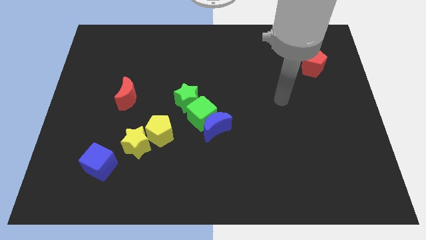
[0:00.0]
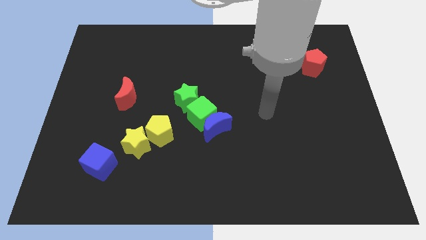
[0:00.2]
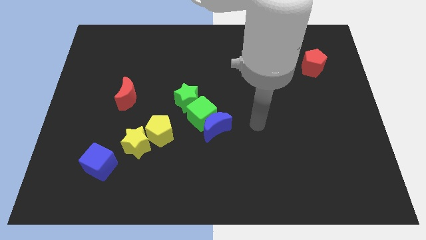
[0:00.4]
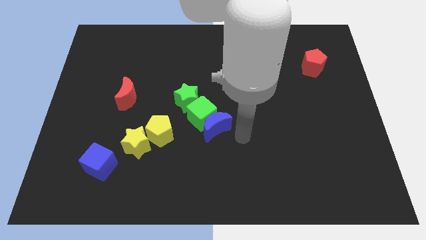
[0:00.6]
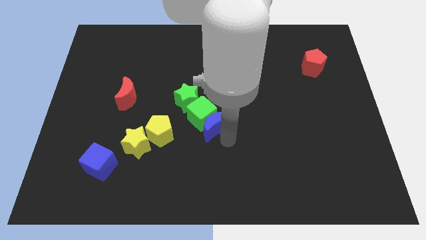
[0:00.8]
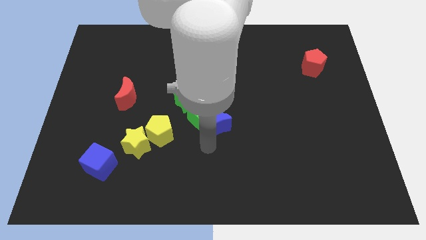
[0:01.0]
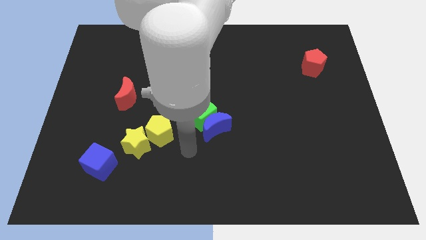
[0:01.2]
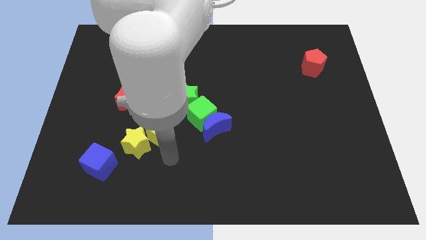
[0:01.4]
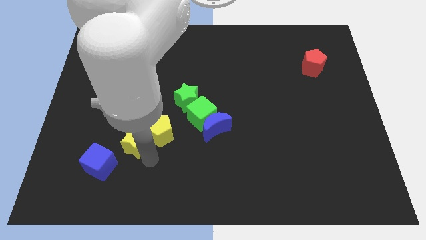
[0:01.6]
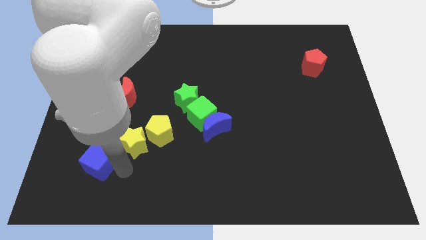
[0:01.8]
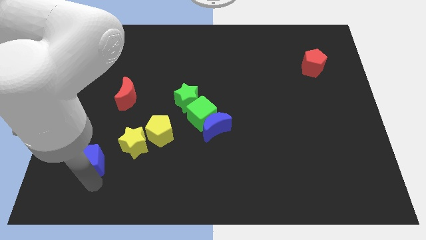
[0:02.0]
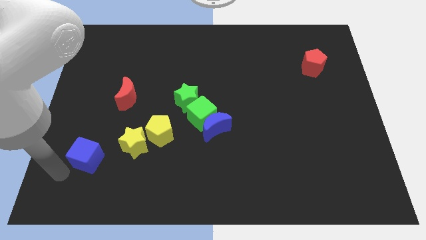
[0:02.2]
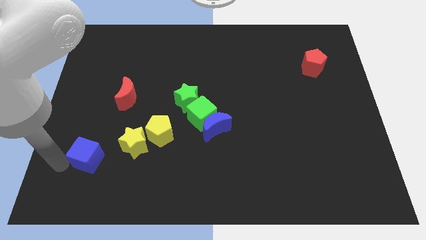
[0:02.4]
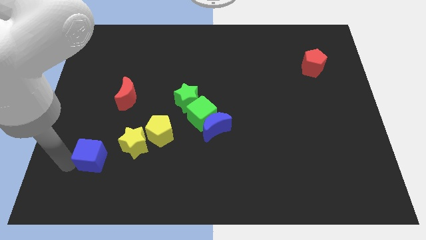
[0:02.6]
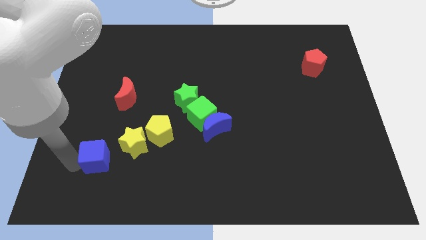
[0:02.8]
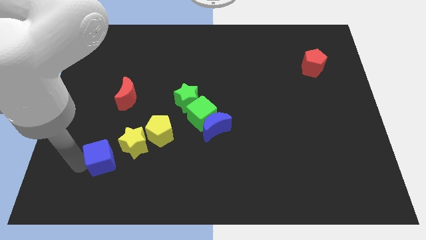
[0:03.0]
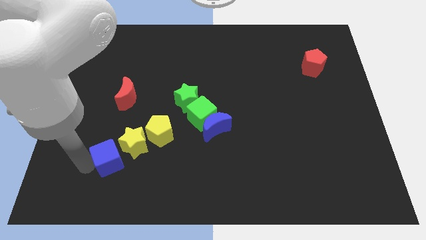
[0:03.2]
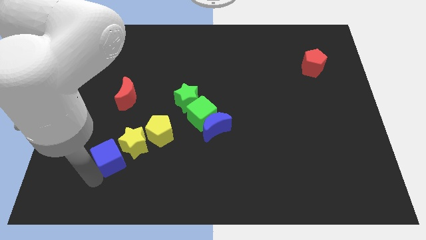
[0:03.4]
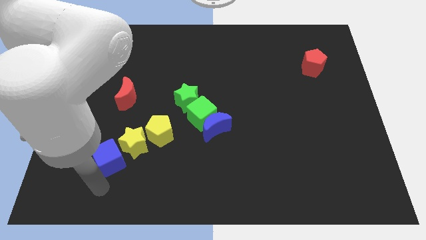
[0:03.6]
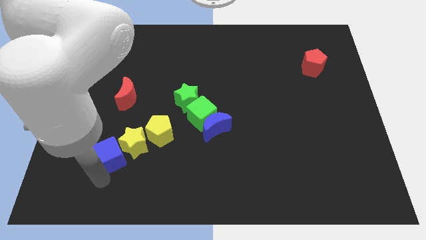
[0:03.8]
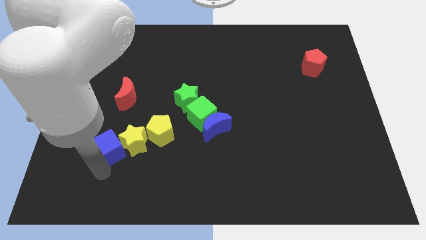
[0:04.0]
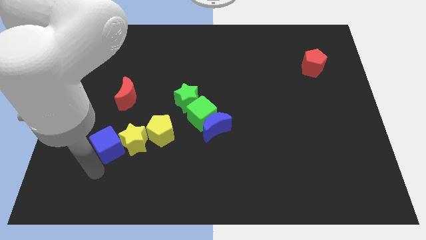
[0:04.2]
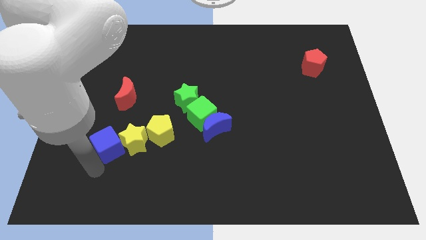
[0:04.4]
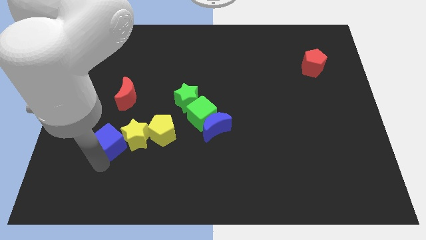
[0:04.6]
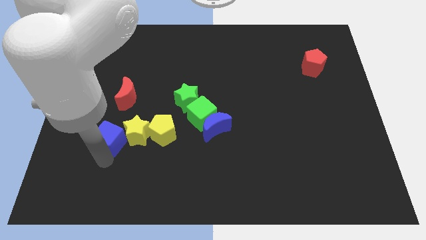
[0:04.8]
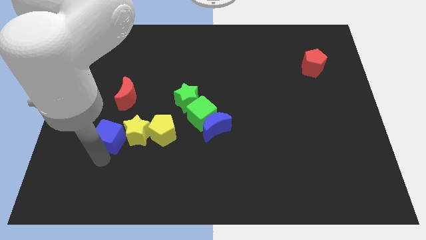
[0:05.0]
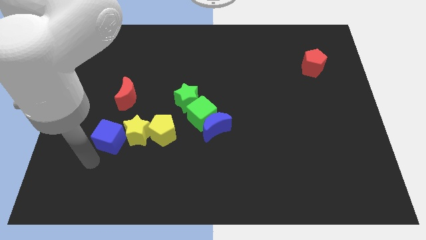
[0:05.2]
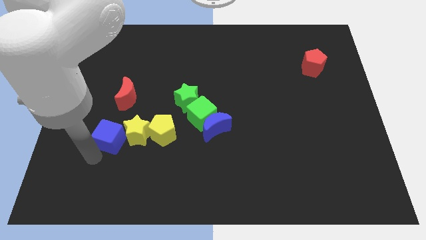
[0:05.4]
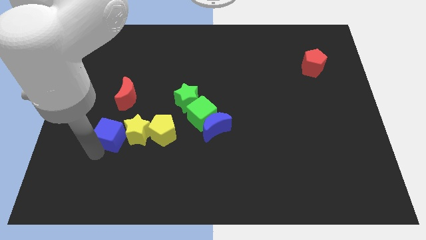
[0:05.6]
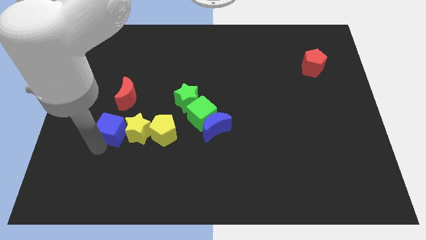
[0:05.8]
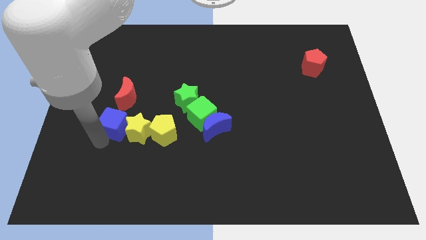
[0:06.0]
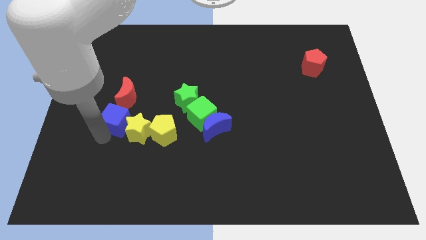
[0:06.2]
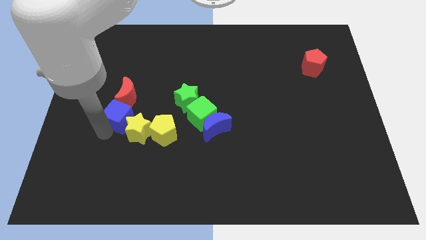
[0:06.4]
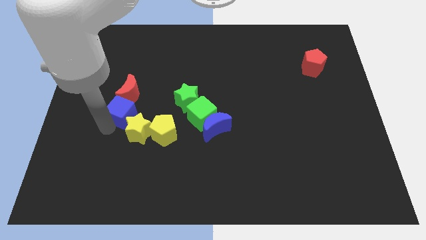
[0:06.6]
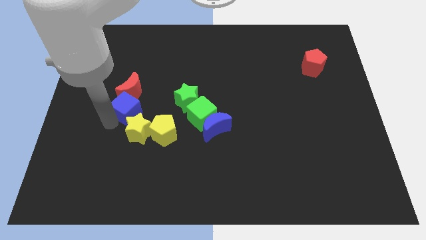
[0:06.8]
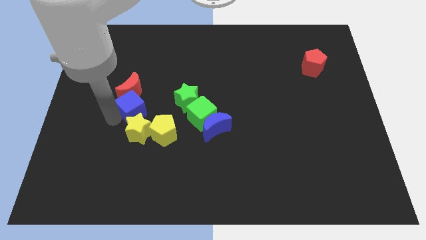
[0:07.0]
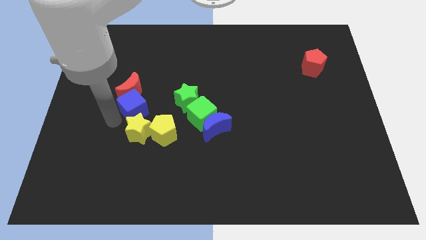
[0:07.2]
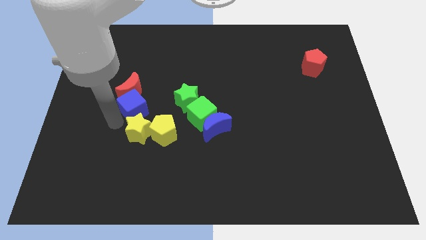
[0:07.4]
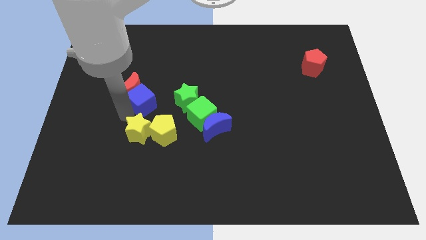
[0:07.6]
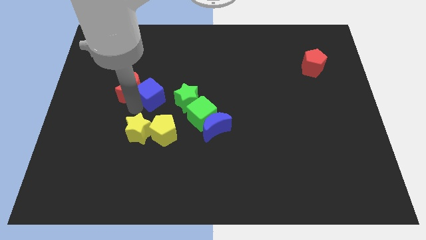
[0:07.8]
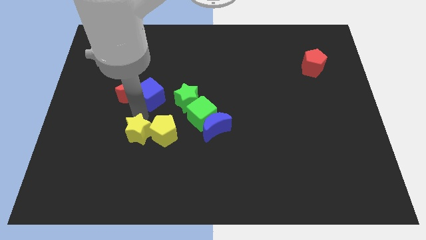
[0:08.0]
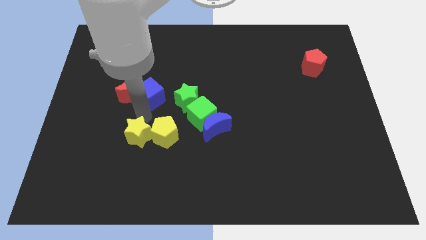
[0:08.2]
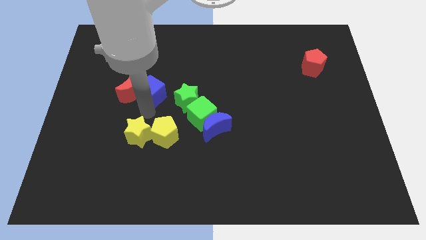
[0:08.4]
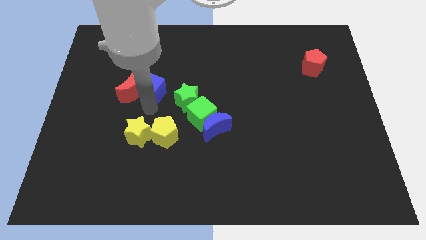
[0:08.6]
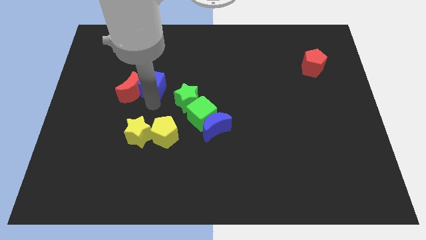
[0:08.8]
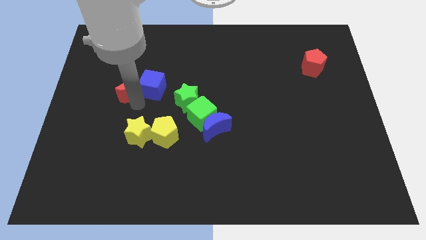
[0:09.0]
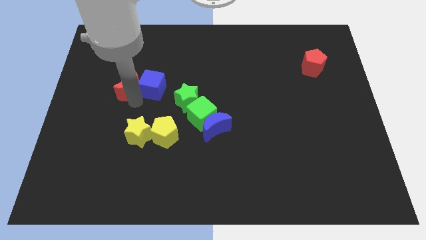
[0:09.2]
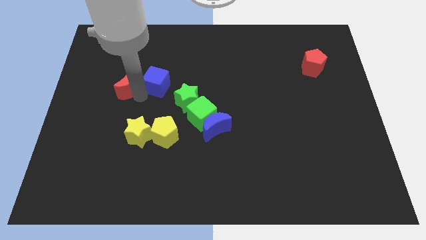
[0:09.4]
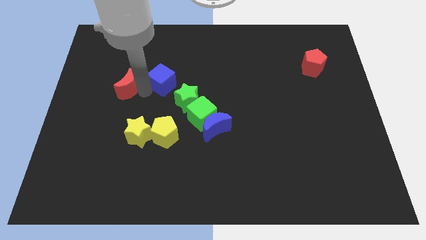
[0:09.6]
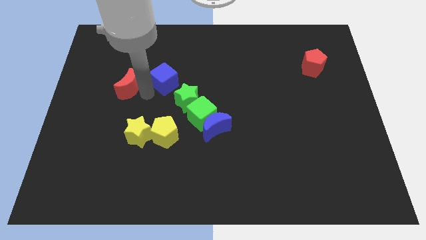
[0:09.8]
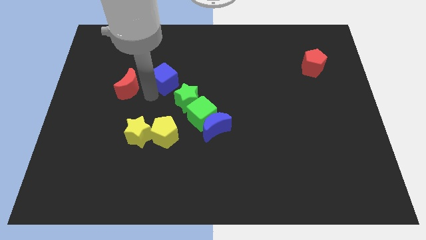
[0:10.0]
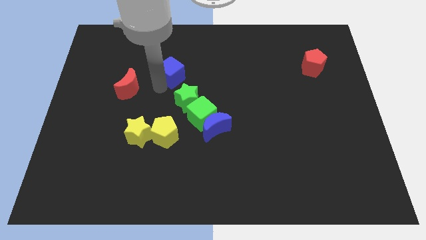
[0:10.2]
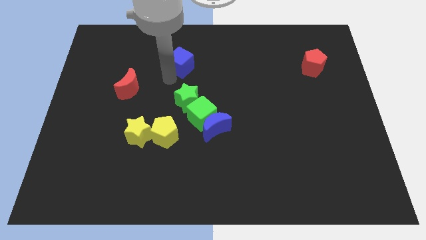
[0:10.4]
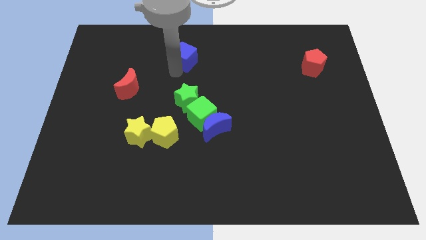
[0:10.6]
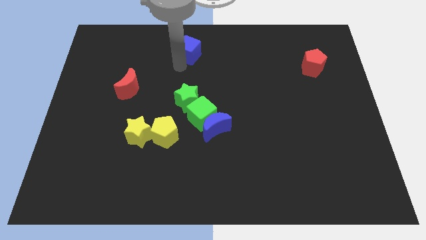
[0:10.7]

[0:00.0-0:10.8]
push the blue cube to the towards your base

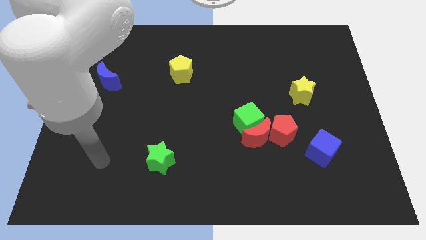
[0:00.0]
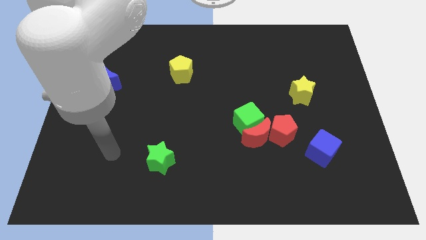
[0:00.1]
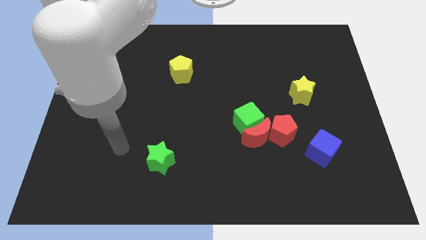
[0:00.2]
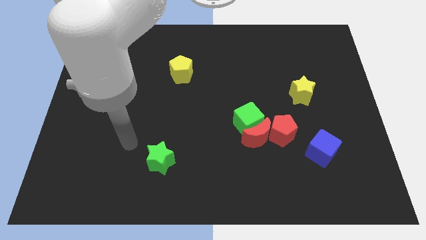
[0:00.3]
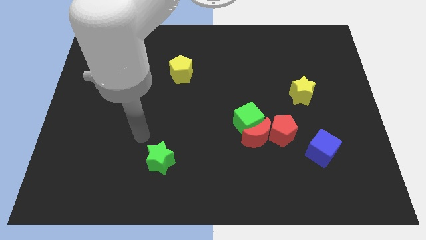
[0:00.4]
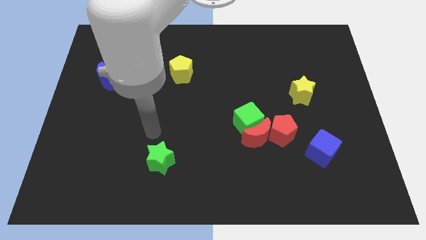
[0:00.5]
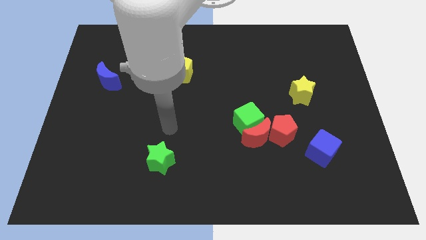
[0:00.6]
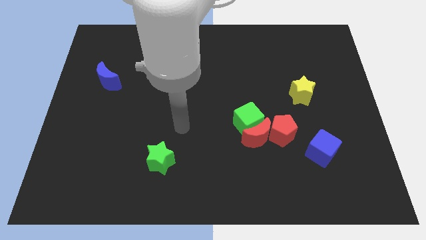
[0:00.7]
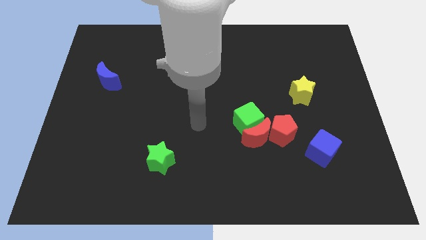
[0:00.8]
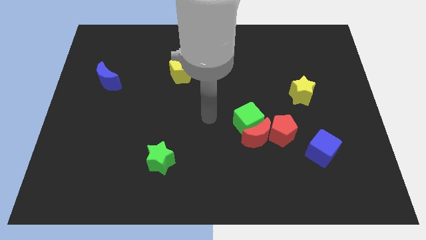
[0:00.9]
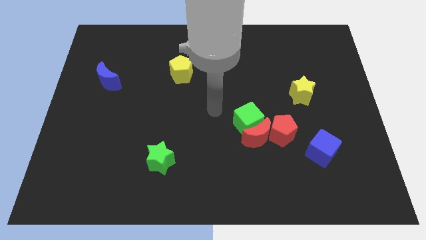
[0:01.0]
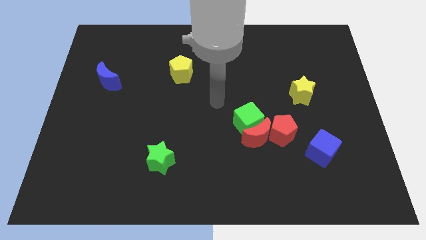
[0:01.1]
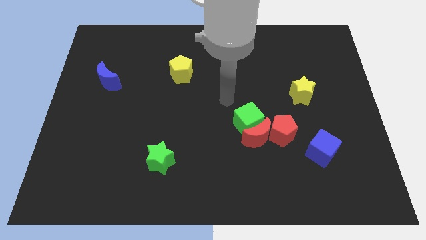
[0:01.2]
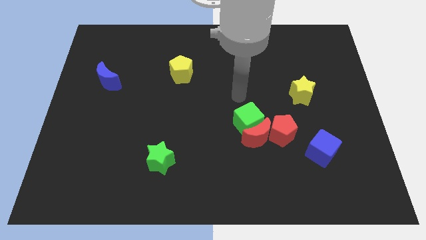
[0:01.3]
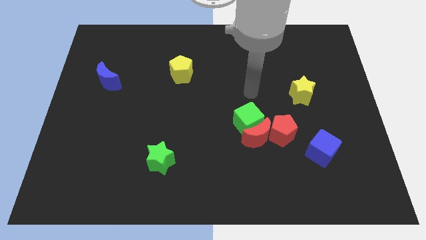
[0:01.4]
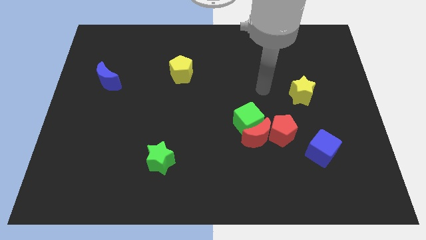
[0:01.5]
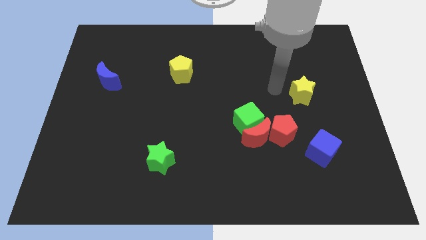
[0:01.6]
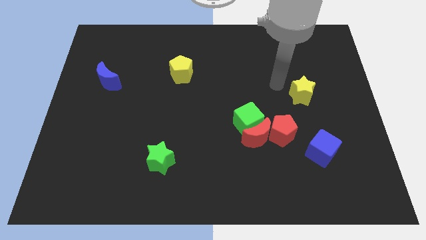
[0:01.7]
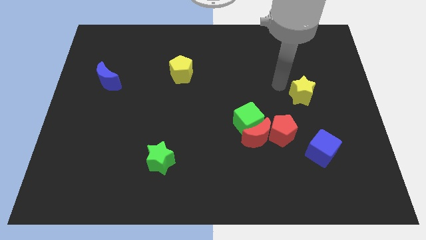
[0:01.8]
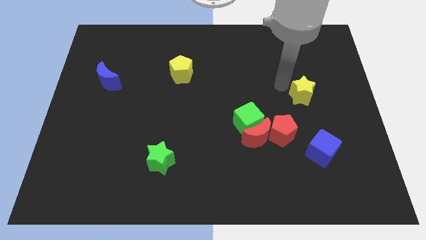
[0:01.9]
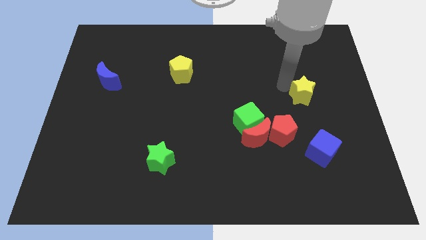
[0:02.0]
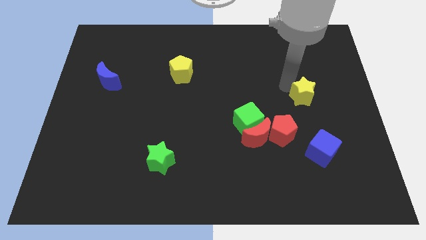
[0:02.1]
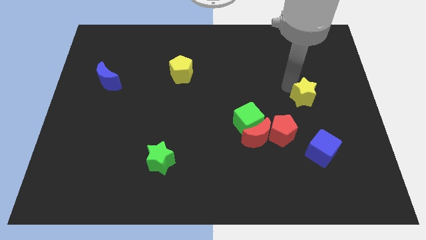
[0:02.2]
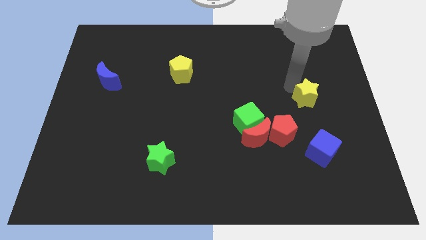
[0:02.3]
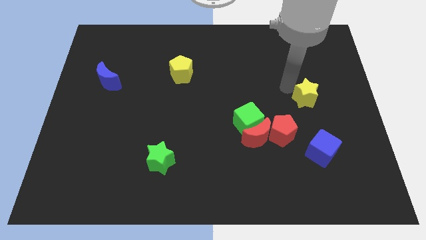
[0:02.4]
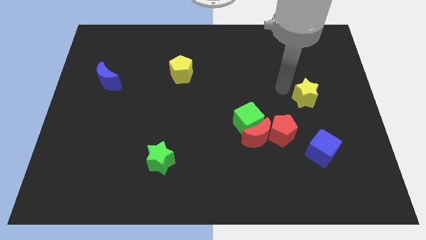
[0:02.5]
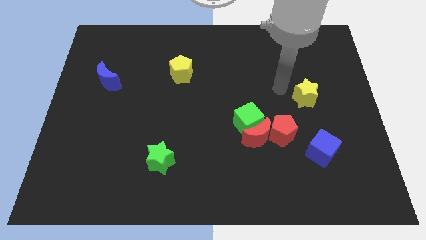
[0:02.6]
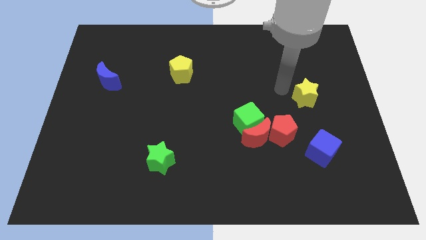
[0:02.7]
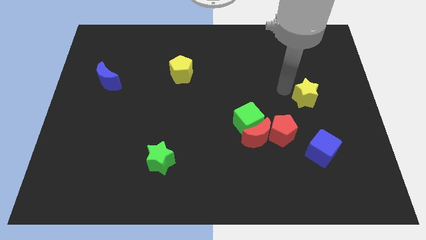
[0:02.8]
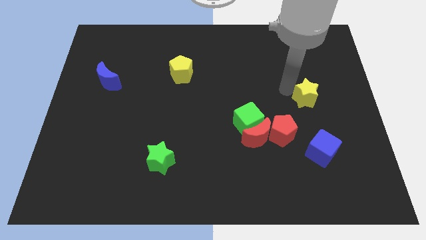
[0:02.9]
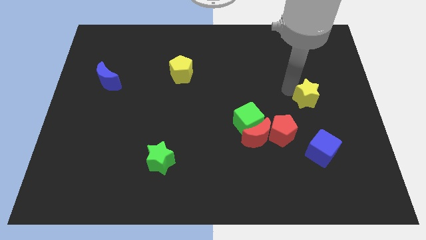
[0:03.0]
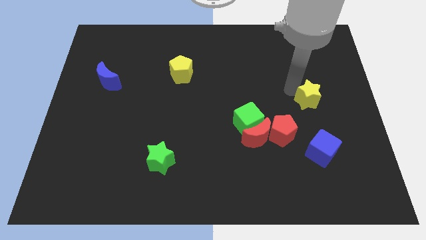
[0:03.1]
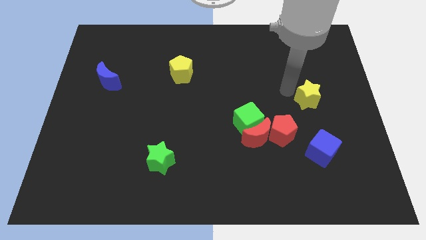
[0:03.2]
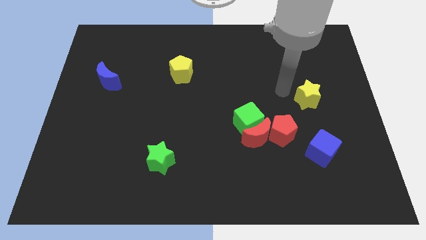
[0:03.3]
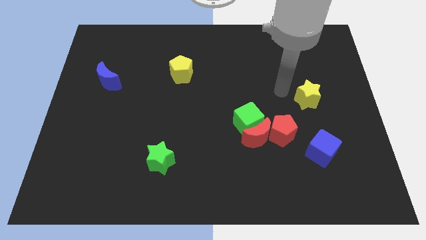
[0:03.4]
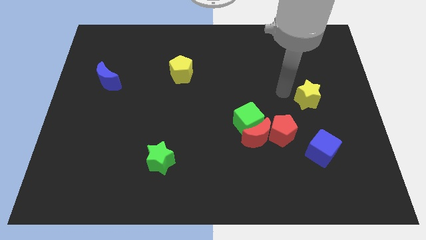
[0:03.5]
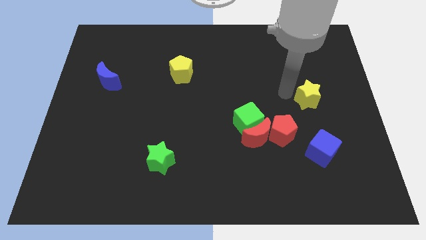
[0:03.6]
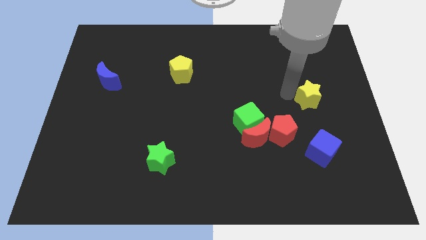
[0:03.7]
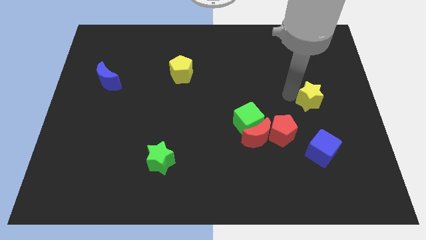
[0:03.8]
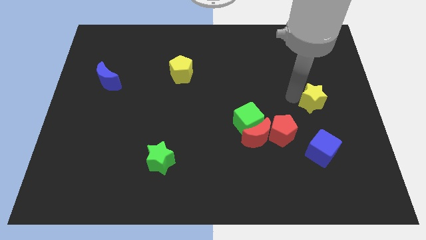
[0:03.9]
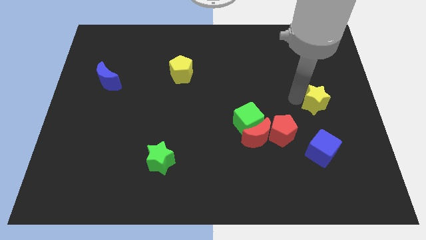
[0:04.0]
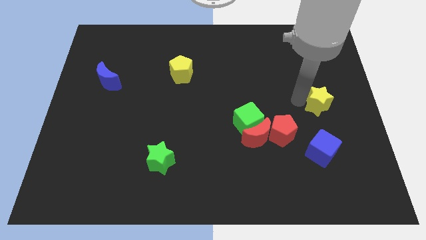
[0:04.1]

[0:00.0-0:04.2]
put the yellow star to the right side of the board
